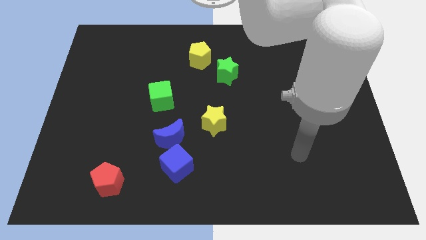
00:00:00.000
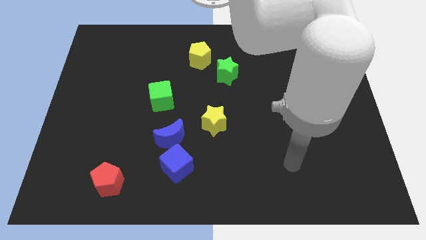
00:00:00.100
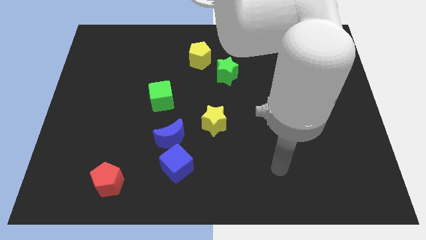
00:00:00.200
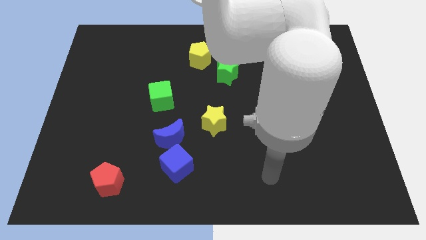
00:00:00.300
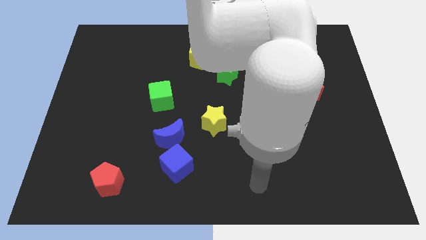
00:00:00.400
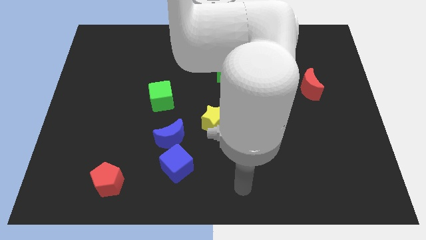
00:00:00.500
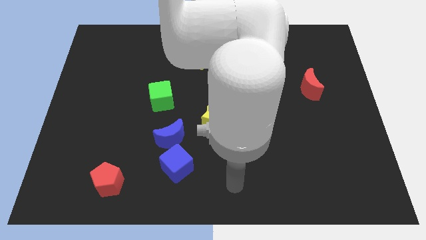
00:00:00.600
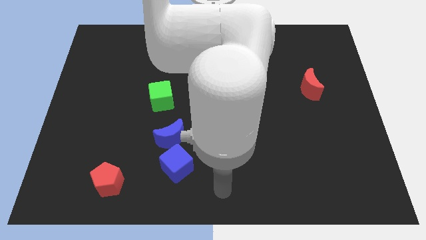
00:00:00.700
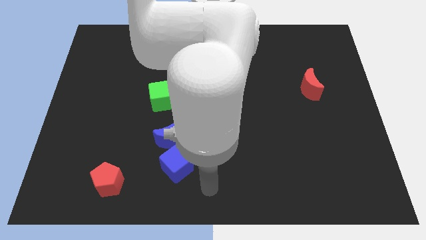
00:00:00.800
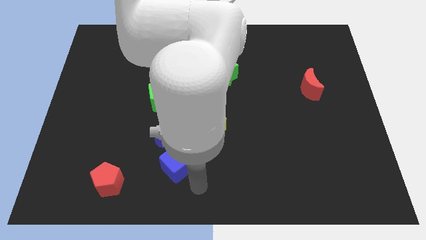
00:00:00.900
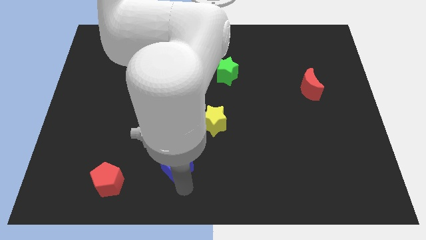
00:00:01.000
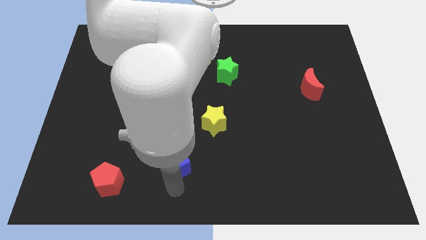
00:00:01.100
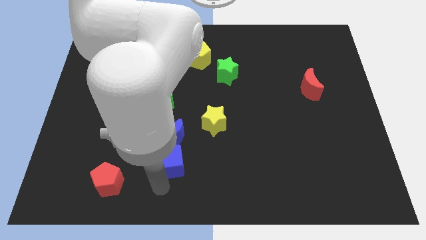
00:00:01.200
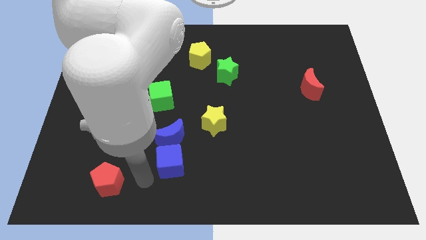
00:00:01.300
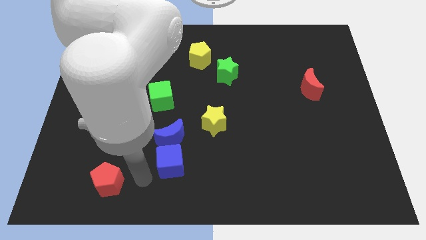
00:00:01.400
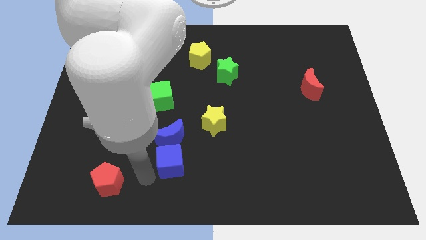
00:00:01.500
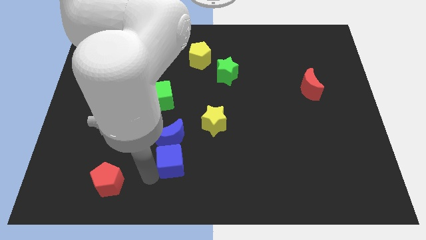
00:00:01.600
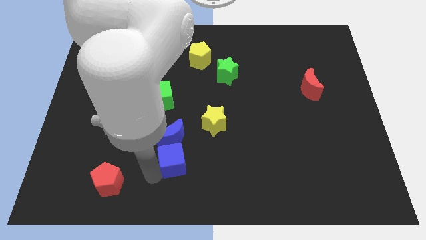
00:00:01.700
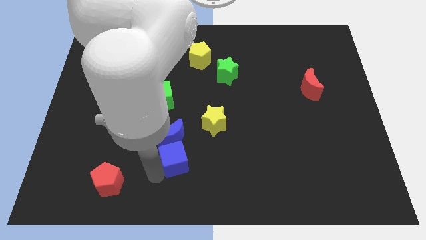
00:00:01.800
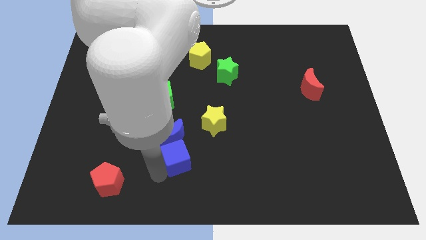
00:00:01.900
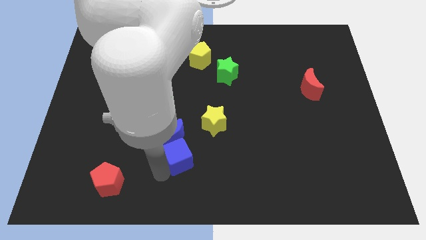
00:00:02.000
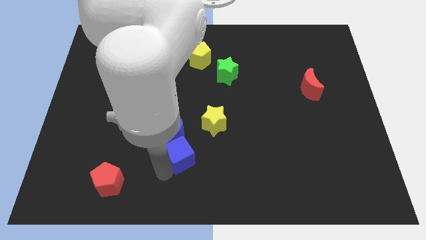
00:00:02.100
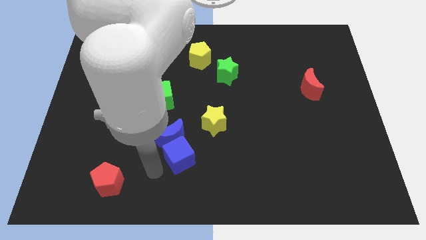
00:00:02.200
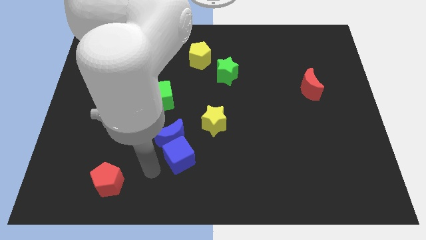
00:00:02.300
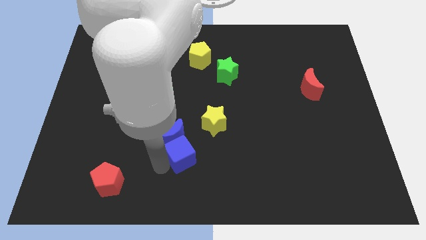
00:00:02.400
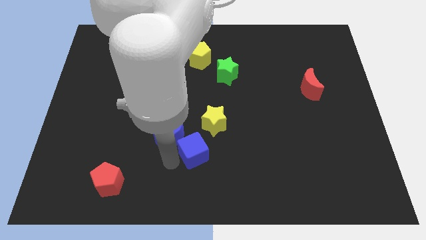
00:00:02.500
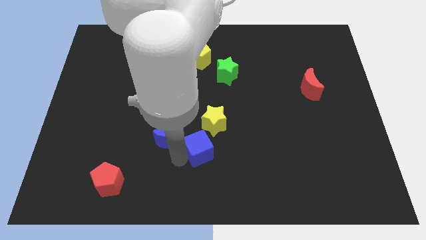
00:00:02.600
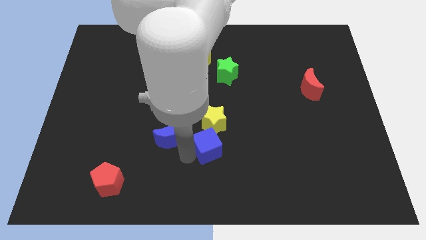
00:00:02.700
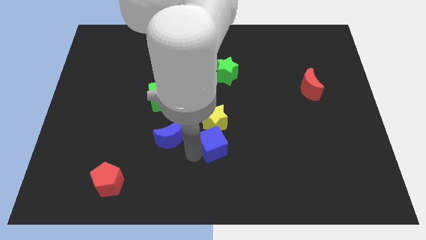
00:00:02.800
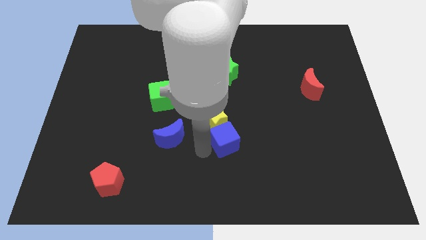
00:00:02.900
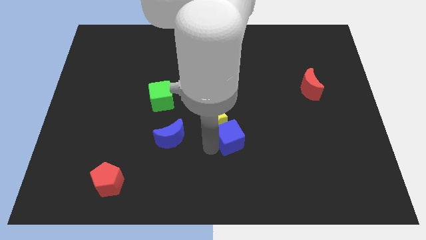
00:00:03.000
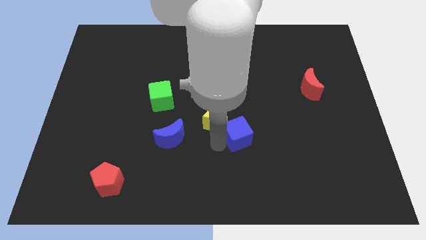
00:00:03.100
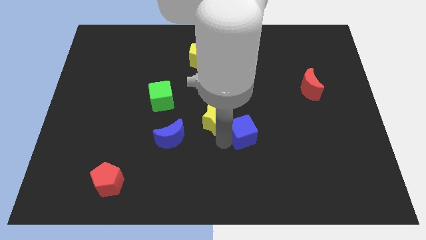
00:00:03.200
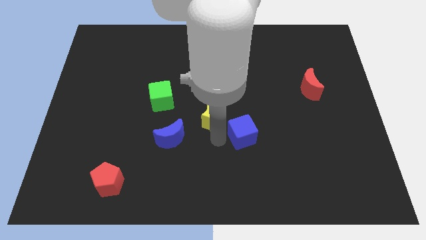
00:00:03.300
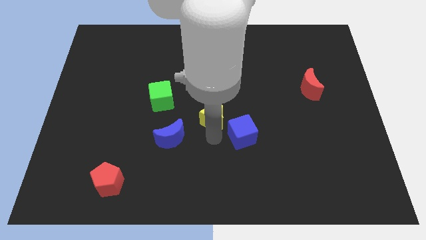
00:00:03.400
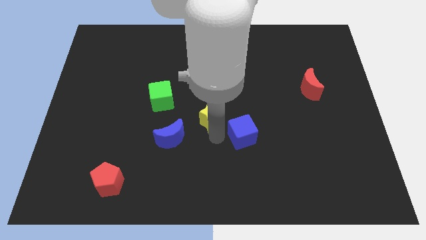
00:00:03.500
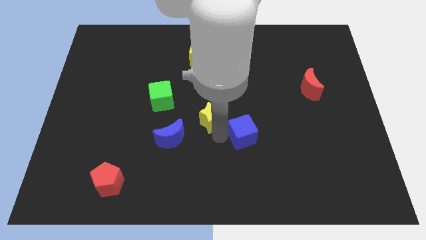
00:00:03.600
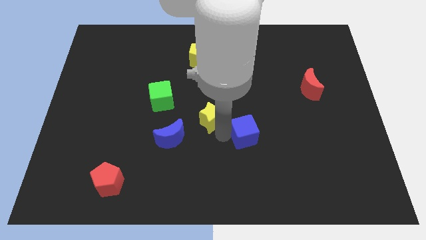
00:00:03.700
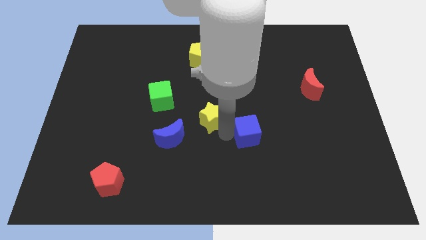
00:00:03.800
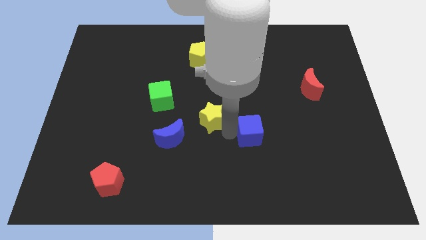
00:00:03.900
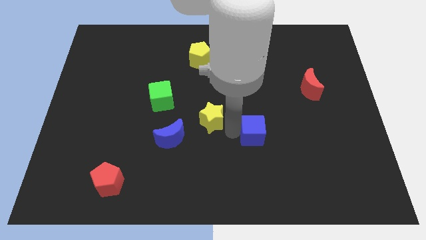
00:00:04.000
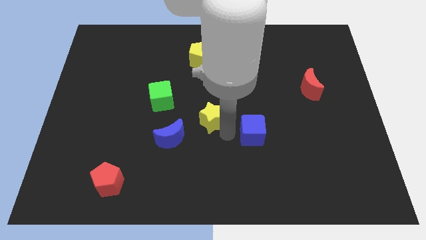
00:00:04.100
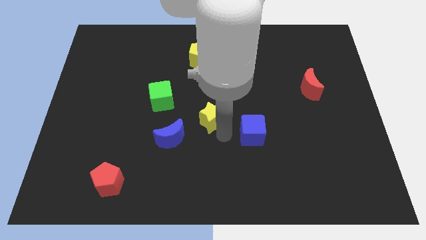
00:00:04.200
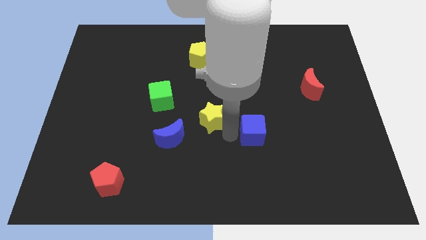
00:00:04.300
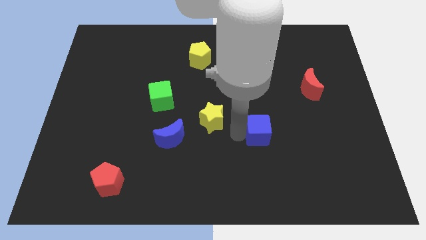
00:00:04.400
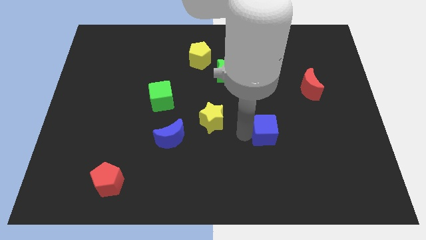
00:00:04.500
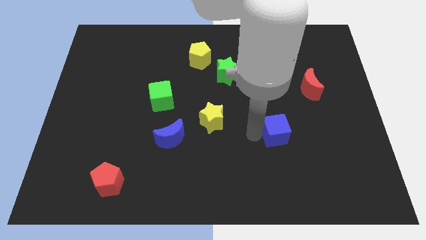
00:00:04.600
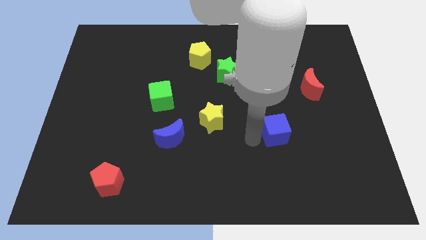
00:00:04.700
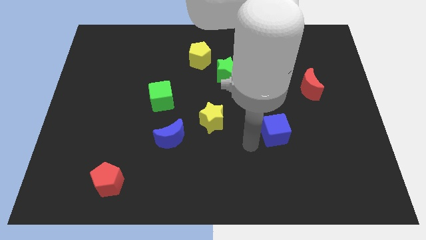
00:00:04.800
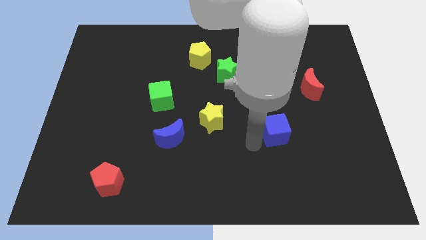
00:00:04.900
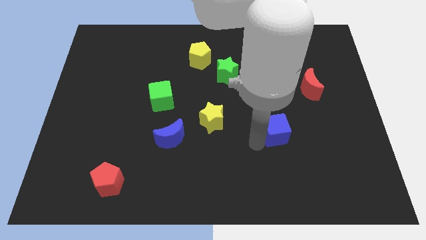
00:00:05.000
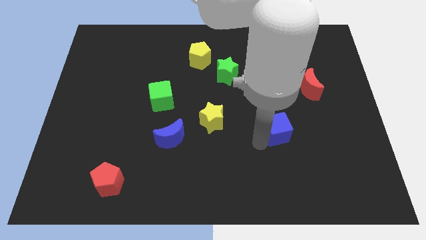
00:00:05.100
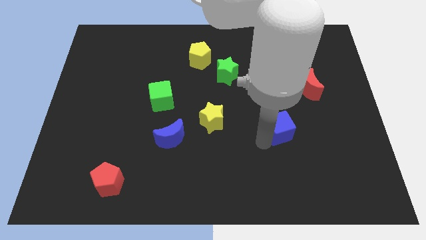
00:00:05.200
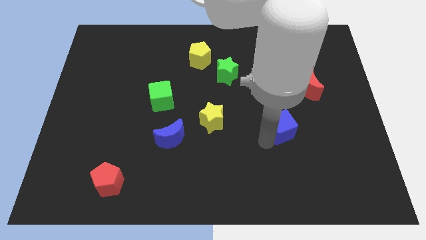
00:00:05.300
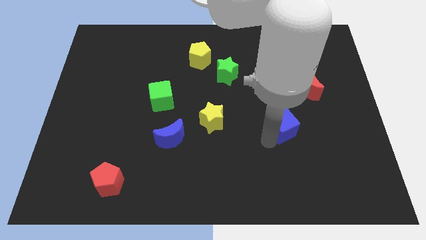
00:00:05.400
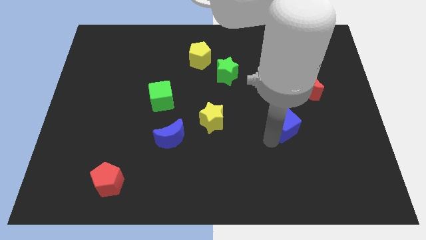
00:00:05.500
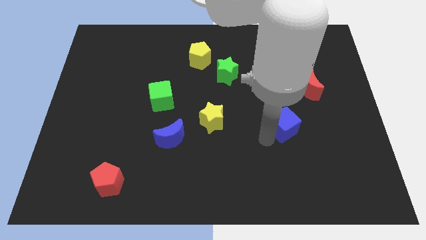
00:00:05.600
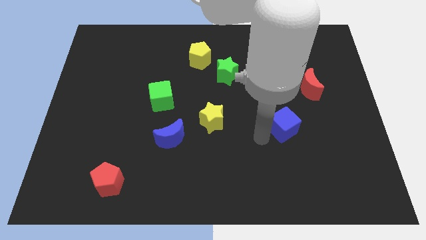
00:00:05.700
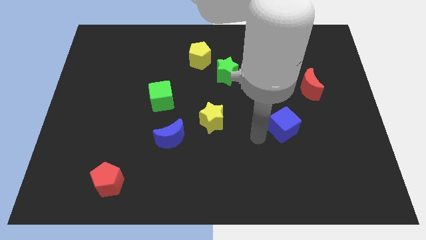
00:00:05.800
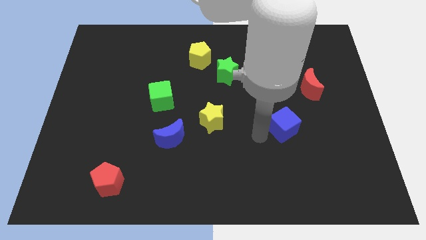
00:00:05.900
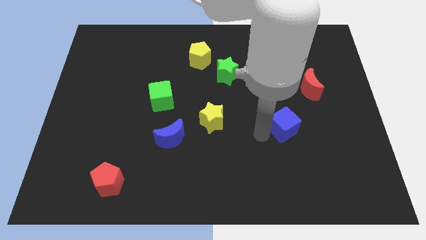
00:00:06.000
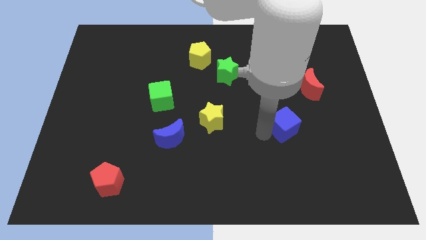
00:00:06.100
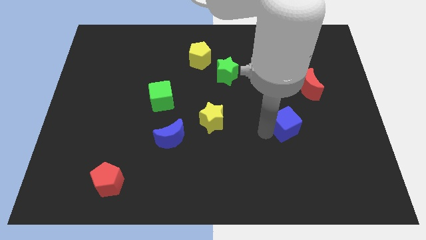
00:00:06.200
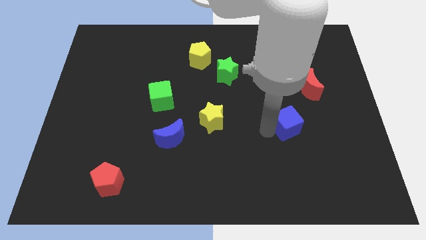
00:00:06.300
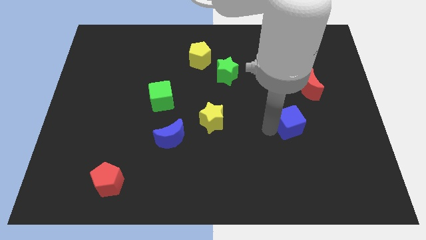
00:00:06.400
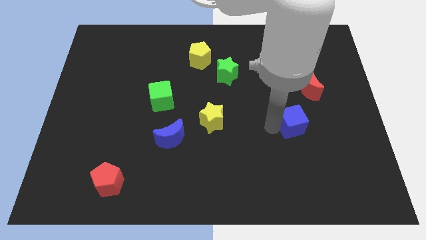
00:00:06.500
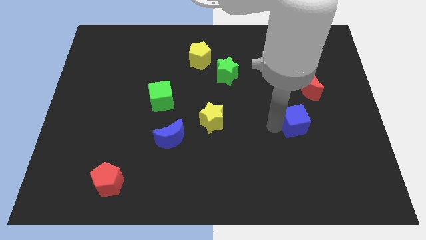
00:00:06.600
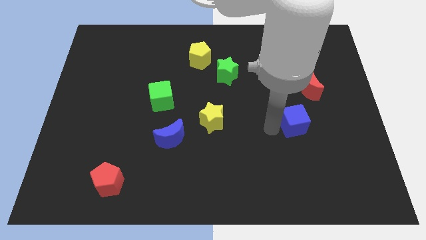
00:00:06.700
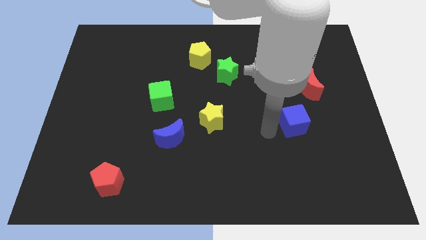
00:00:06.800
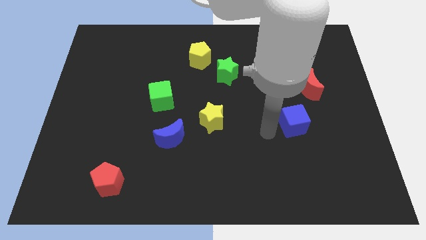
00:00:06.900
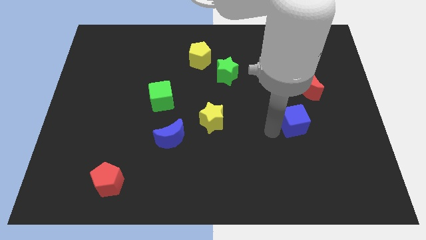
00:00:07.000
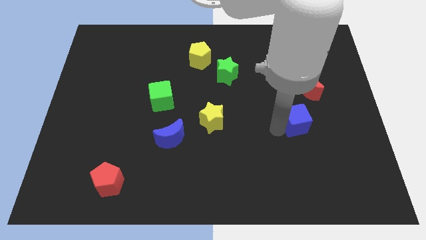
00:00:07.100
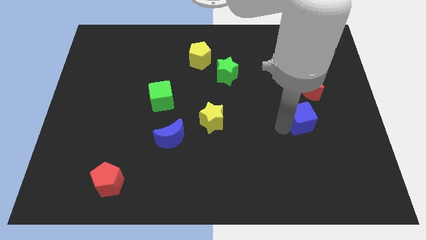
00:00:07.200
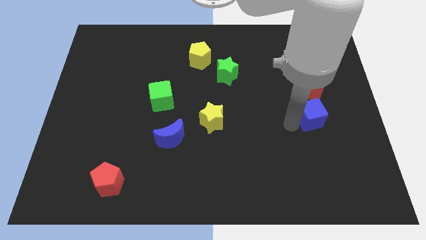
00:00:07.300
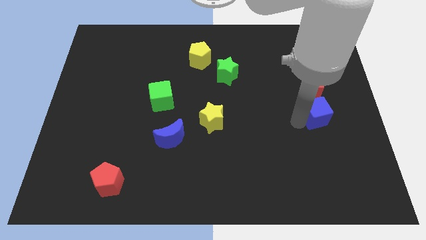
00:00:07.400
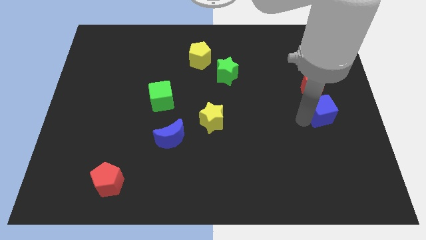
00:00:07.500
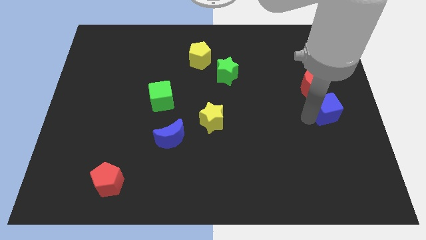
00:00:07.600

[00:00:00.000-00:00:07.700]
push the blue cube to the right side of the board

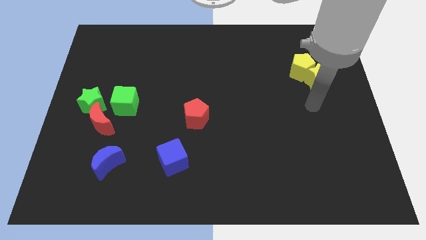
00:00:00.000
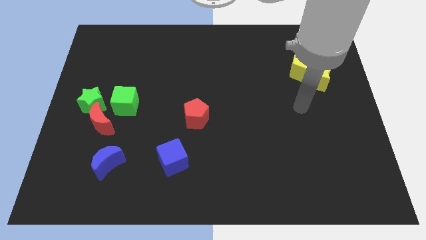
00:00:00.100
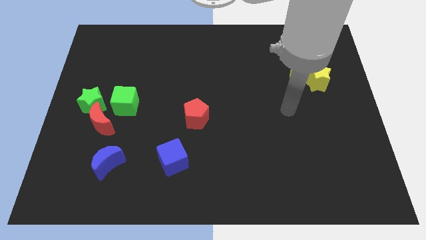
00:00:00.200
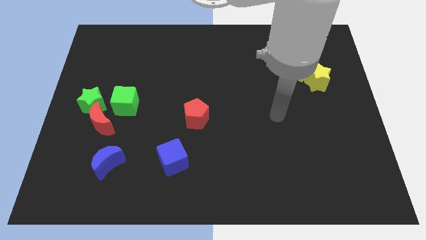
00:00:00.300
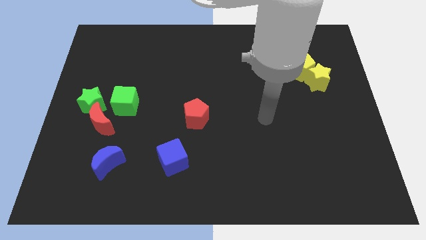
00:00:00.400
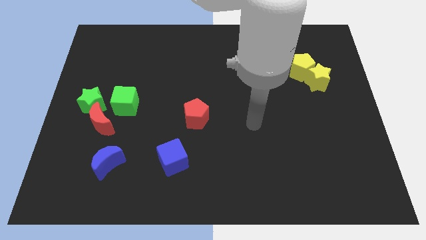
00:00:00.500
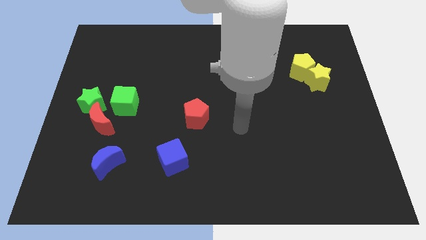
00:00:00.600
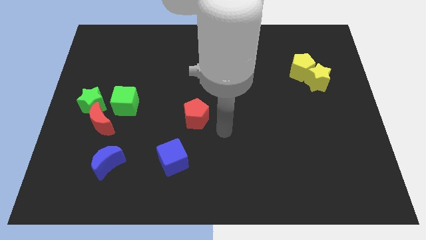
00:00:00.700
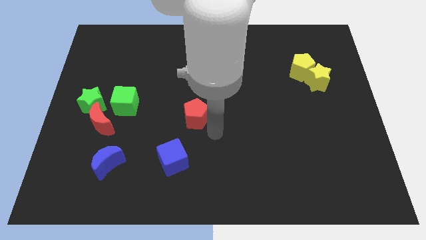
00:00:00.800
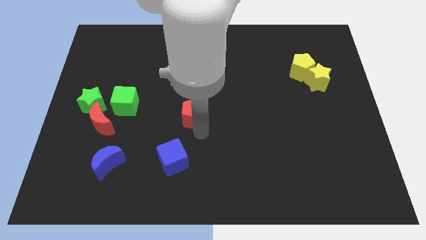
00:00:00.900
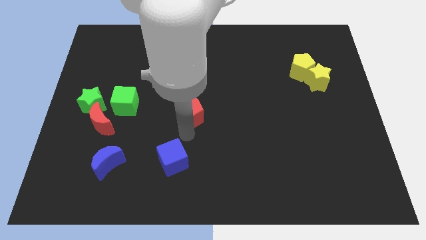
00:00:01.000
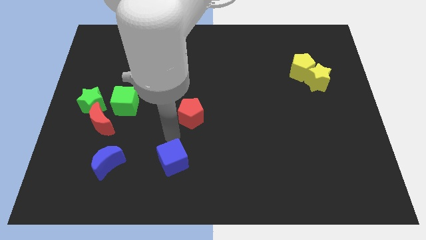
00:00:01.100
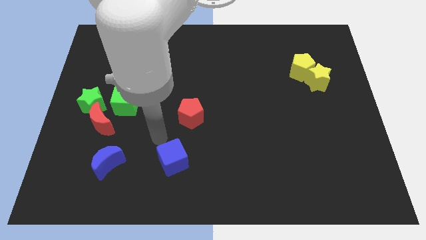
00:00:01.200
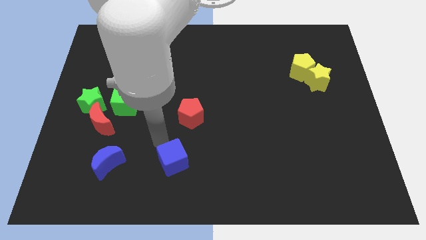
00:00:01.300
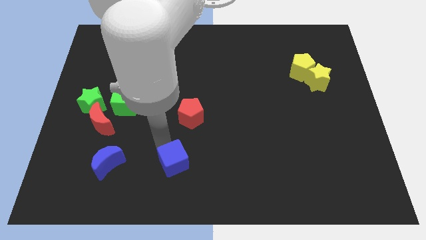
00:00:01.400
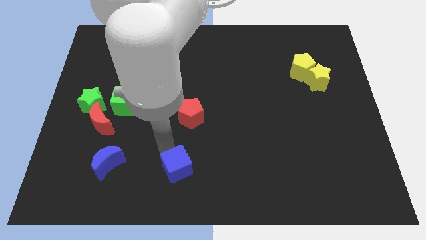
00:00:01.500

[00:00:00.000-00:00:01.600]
push the blue cube to the bottom
